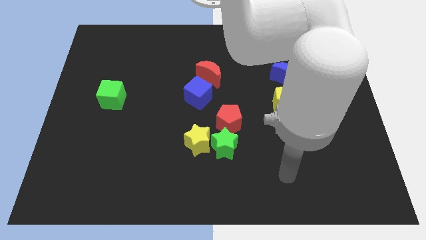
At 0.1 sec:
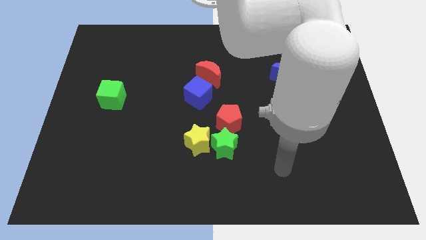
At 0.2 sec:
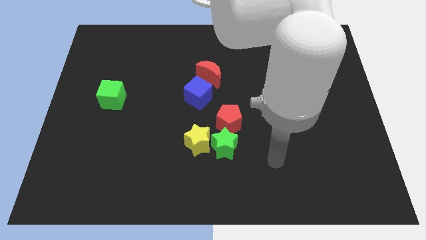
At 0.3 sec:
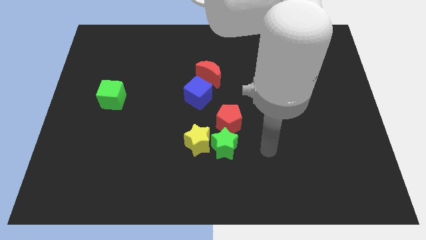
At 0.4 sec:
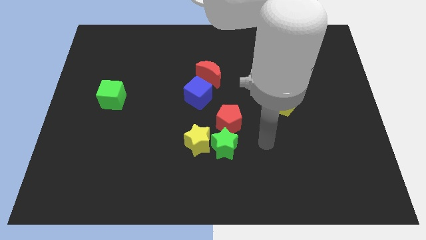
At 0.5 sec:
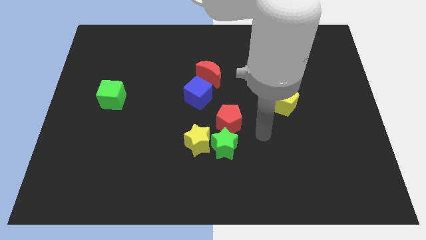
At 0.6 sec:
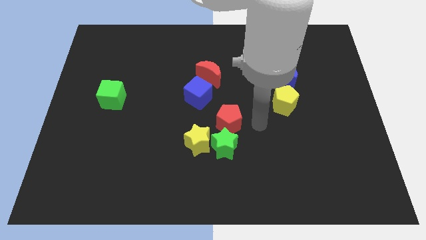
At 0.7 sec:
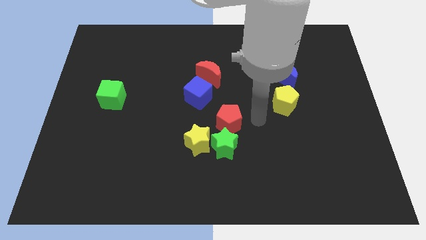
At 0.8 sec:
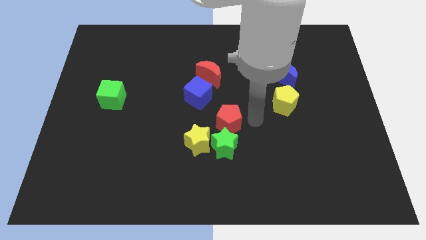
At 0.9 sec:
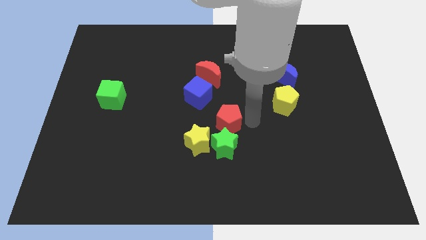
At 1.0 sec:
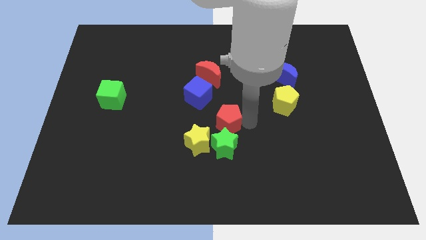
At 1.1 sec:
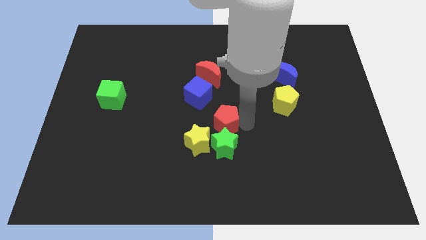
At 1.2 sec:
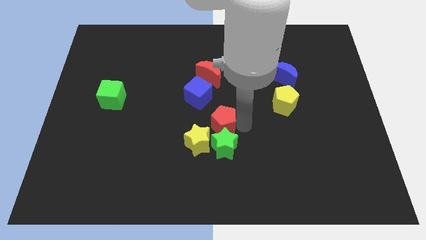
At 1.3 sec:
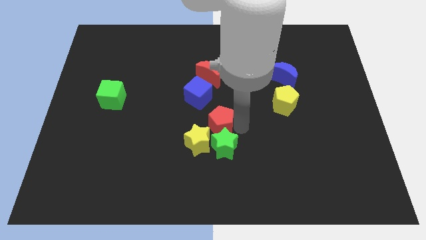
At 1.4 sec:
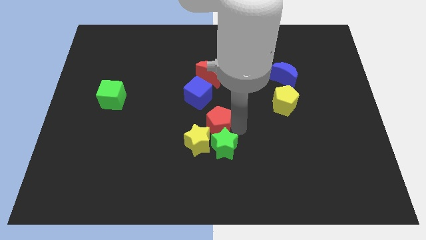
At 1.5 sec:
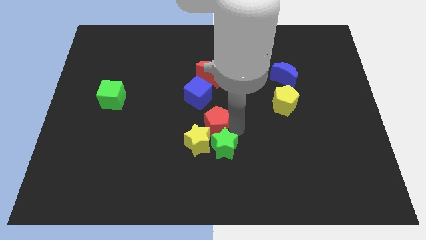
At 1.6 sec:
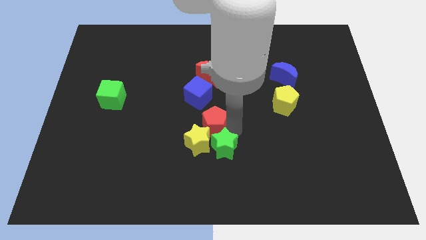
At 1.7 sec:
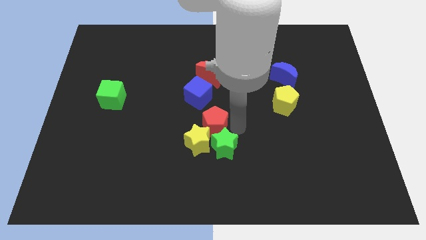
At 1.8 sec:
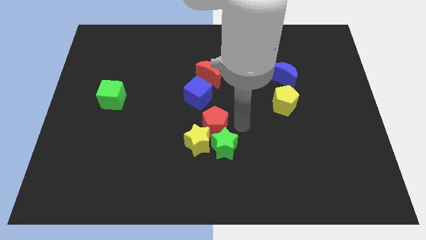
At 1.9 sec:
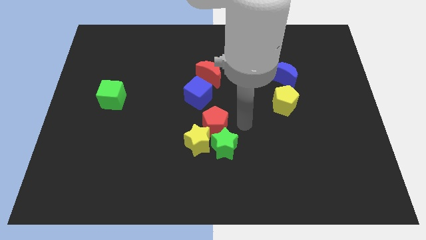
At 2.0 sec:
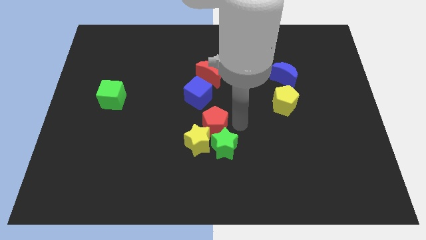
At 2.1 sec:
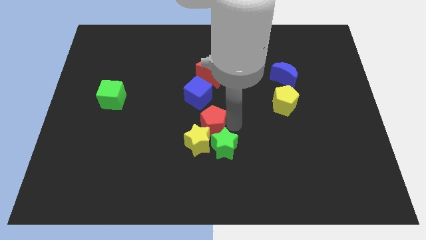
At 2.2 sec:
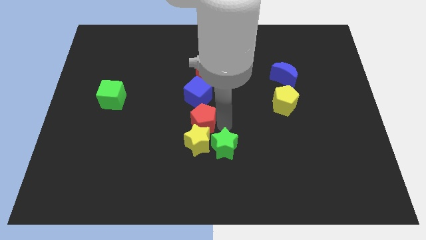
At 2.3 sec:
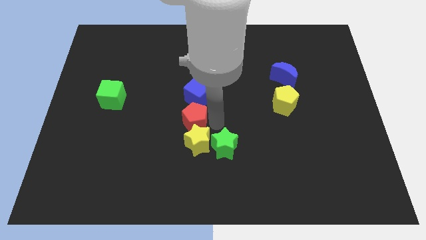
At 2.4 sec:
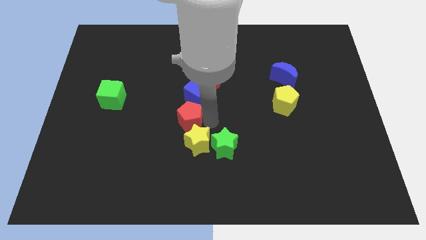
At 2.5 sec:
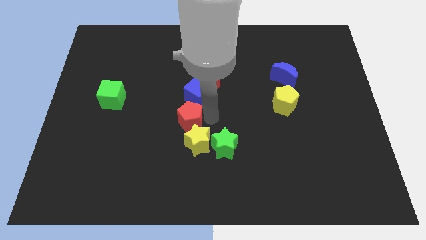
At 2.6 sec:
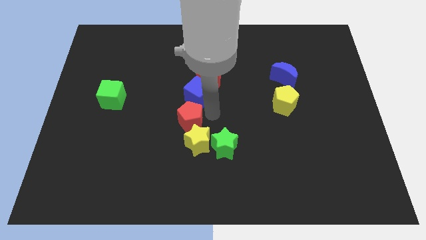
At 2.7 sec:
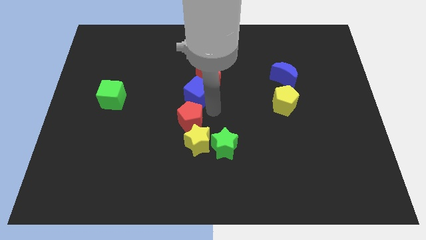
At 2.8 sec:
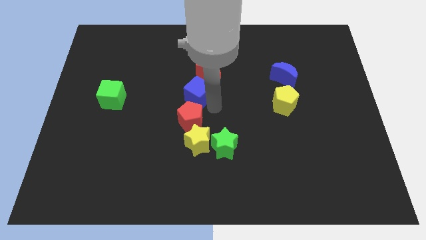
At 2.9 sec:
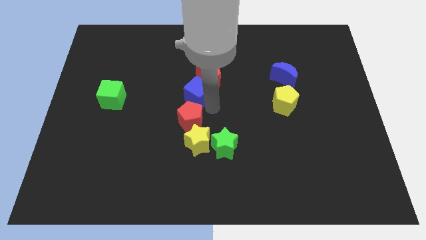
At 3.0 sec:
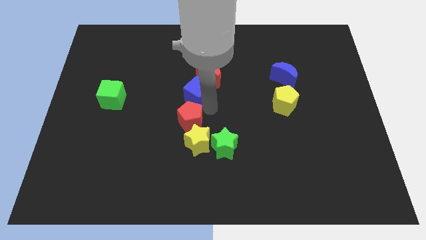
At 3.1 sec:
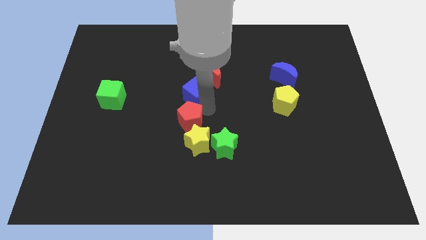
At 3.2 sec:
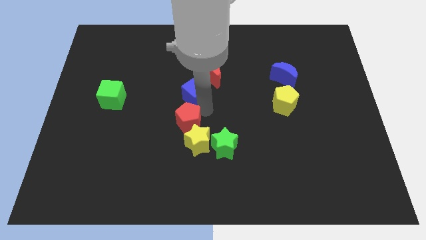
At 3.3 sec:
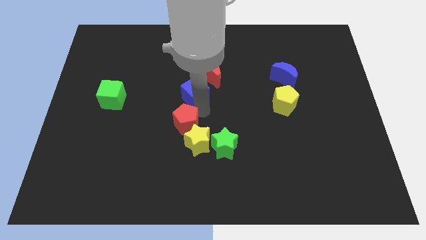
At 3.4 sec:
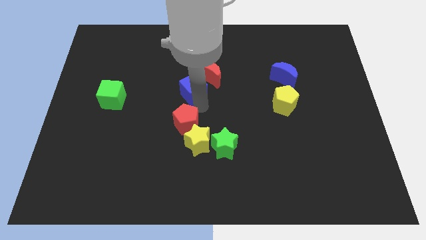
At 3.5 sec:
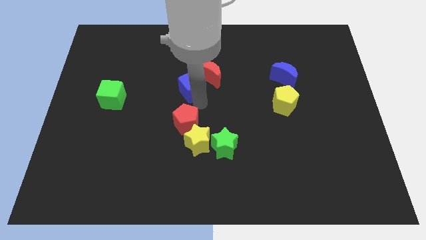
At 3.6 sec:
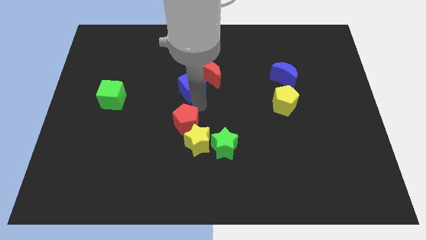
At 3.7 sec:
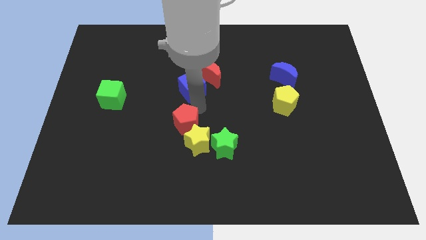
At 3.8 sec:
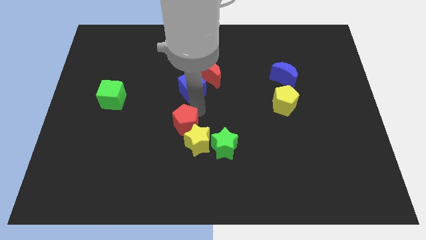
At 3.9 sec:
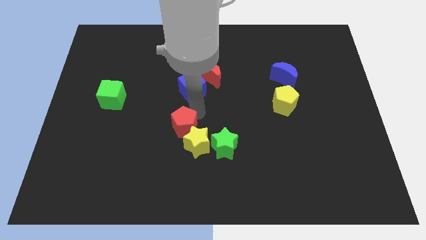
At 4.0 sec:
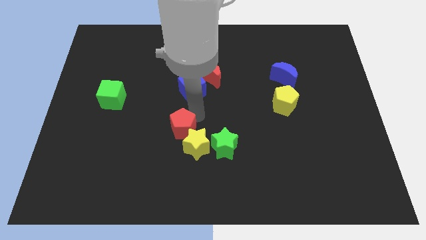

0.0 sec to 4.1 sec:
slightly push the red pentagon downwards and to the left diagonally

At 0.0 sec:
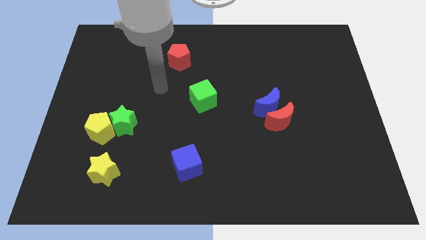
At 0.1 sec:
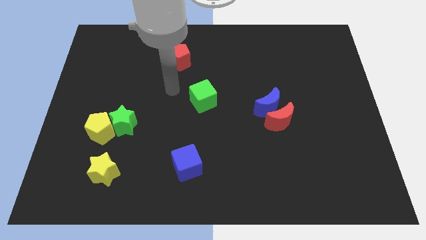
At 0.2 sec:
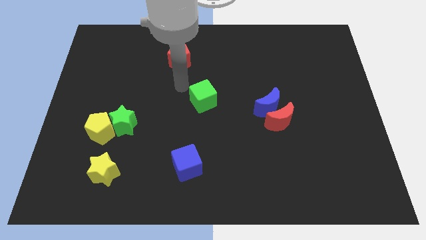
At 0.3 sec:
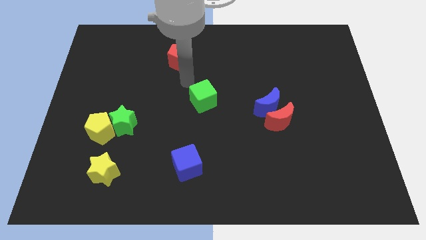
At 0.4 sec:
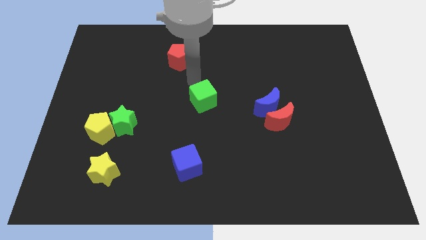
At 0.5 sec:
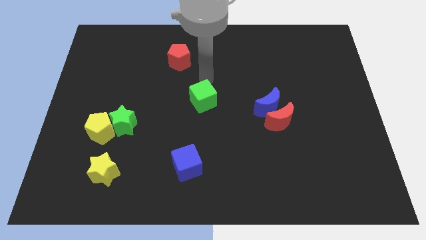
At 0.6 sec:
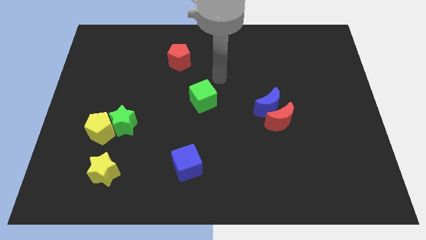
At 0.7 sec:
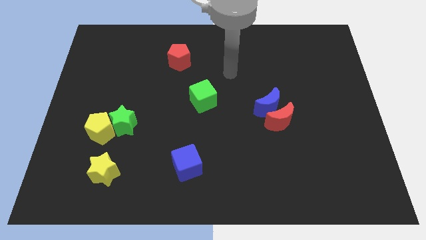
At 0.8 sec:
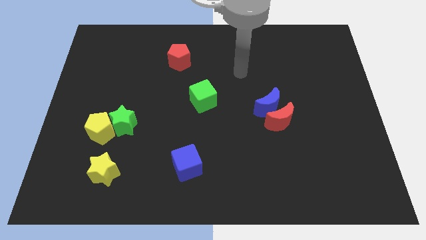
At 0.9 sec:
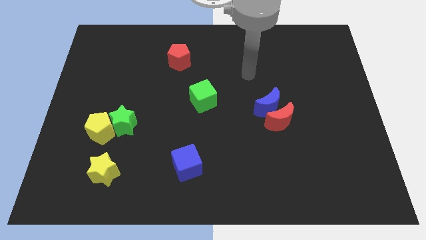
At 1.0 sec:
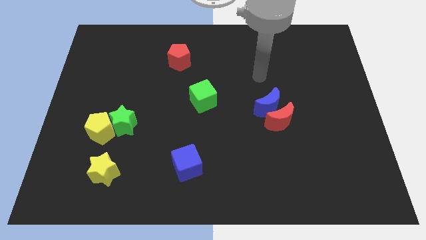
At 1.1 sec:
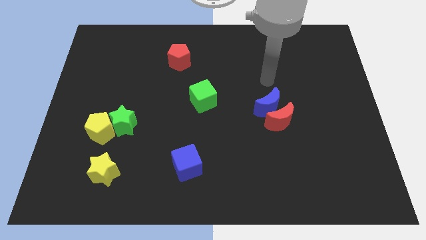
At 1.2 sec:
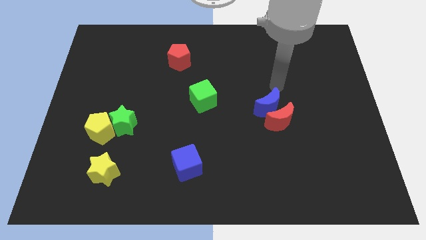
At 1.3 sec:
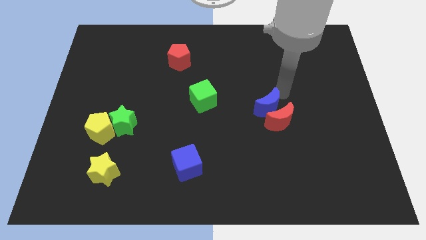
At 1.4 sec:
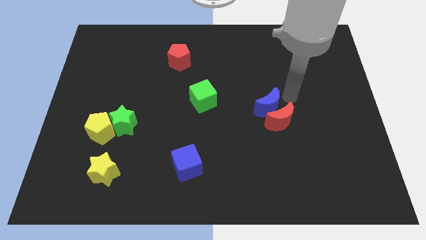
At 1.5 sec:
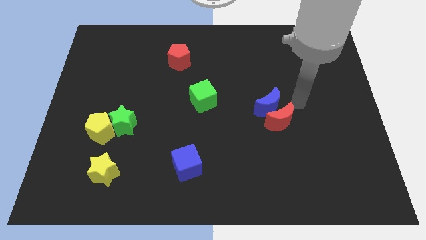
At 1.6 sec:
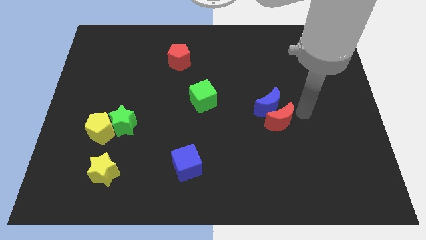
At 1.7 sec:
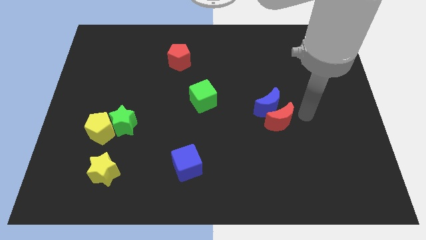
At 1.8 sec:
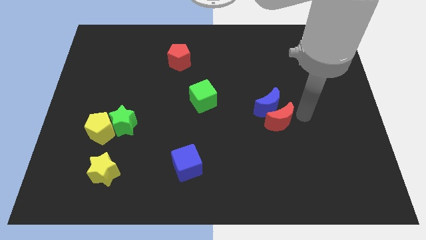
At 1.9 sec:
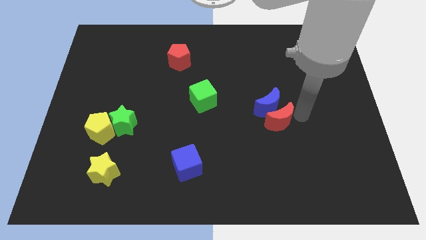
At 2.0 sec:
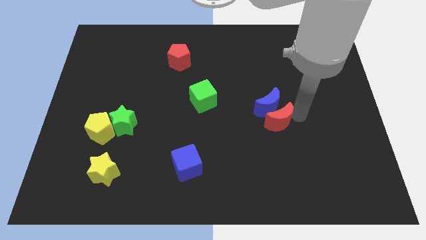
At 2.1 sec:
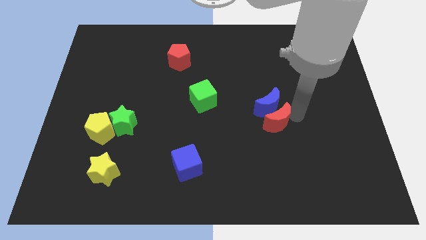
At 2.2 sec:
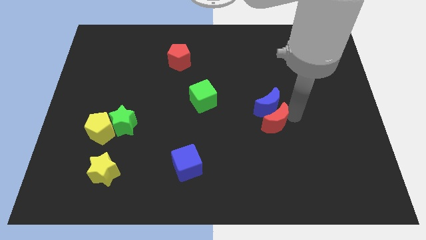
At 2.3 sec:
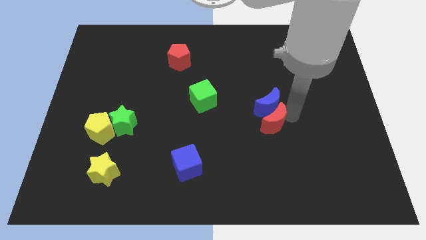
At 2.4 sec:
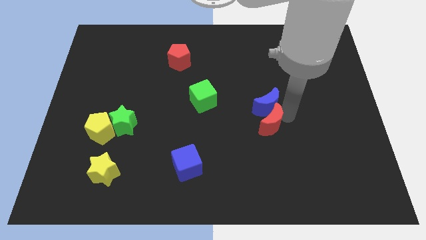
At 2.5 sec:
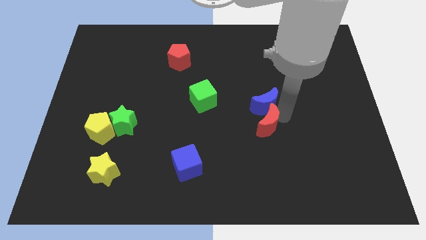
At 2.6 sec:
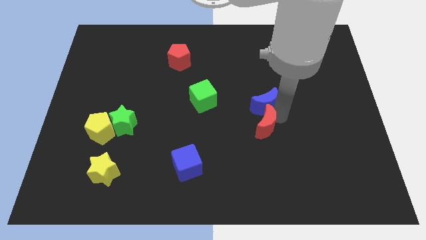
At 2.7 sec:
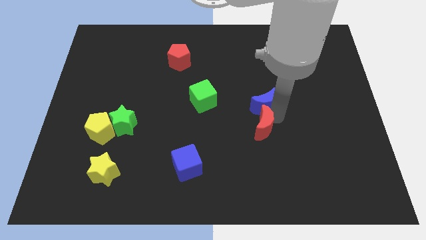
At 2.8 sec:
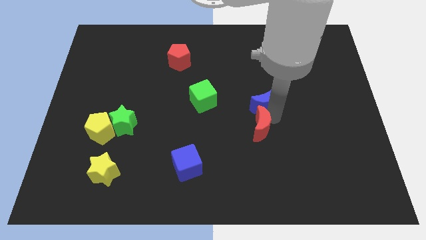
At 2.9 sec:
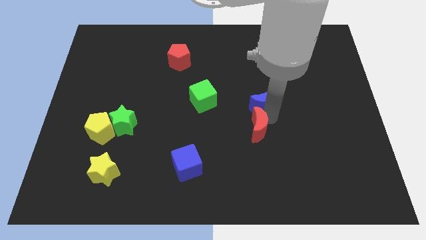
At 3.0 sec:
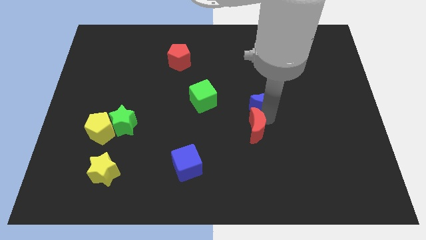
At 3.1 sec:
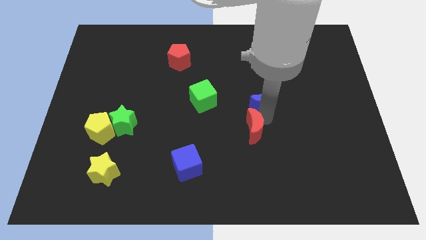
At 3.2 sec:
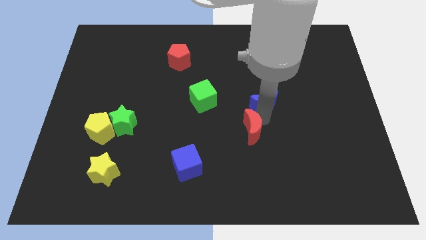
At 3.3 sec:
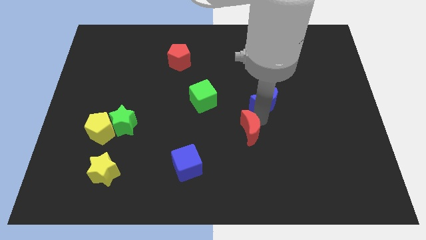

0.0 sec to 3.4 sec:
slightly push the red moon to the left

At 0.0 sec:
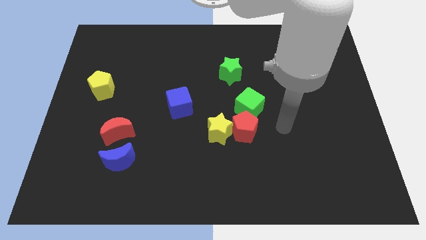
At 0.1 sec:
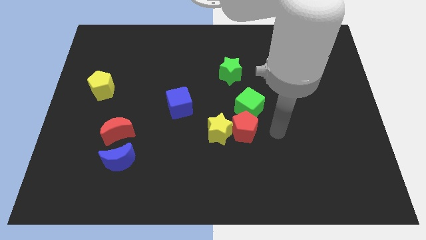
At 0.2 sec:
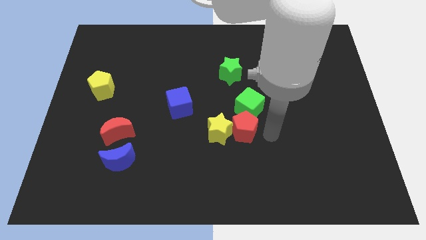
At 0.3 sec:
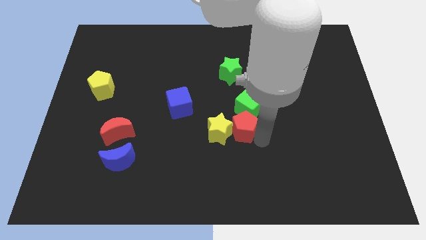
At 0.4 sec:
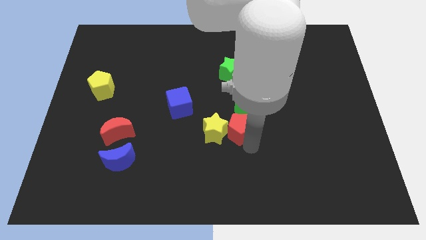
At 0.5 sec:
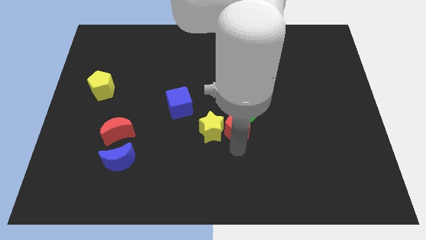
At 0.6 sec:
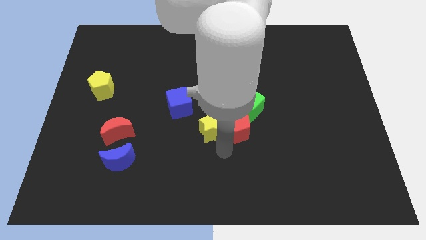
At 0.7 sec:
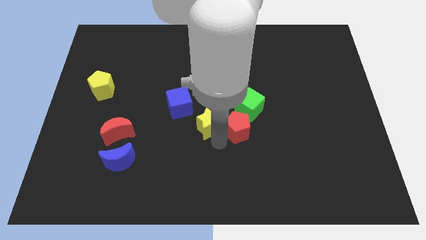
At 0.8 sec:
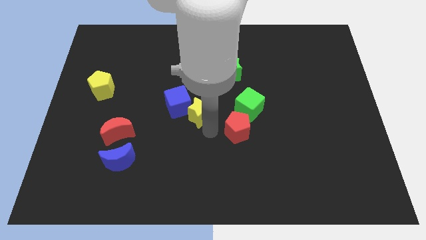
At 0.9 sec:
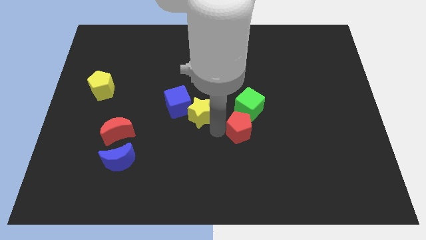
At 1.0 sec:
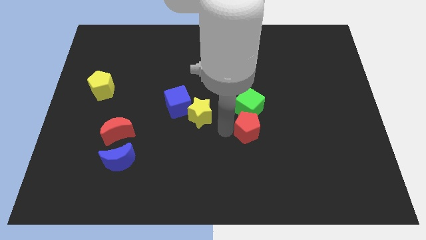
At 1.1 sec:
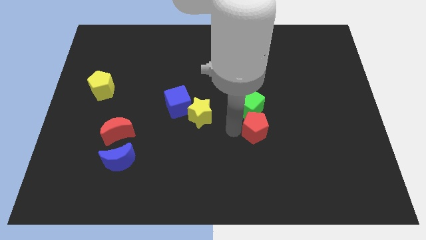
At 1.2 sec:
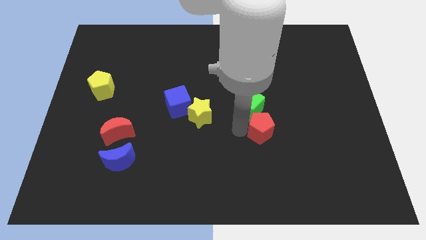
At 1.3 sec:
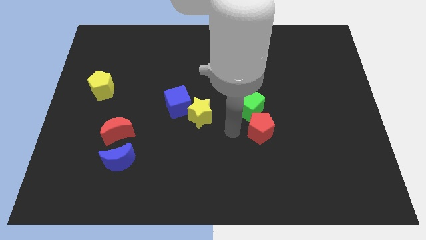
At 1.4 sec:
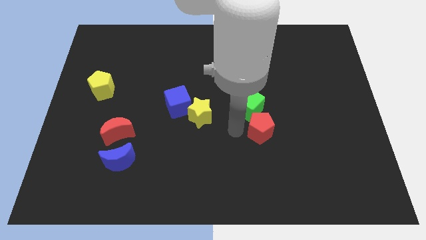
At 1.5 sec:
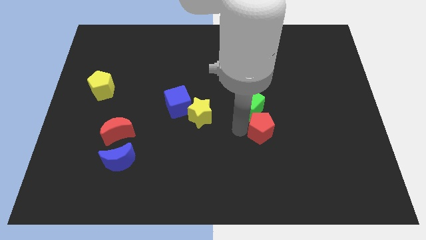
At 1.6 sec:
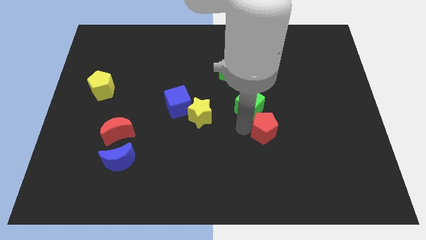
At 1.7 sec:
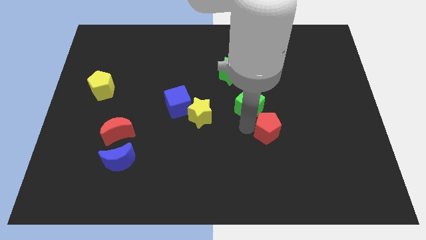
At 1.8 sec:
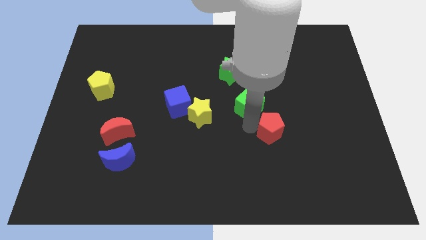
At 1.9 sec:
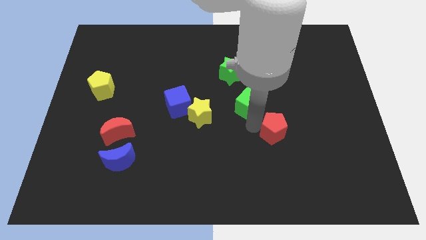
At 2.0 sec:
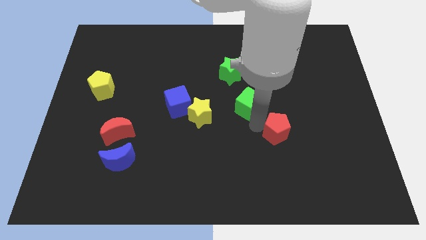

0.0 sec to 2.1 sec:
move the red pentagon slightly right
